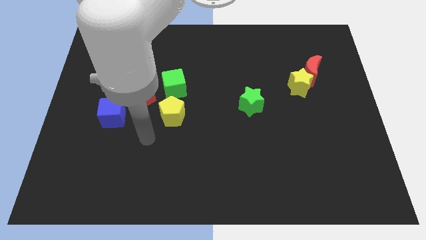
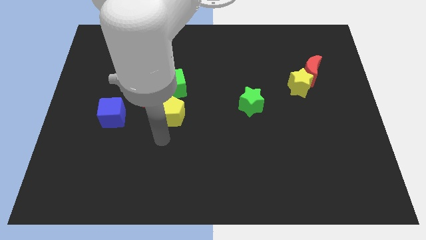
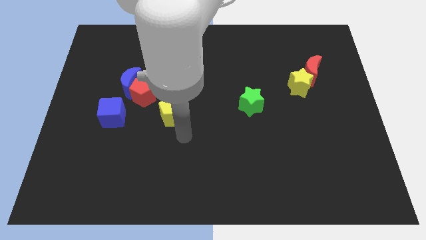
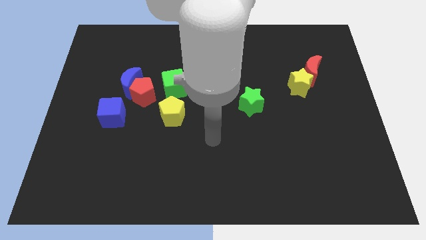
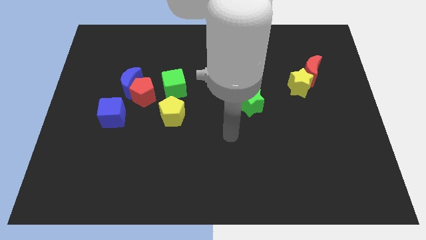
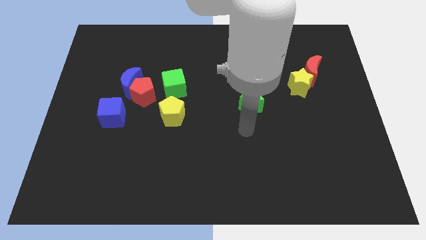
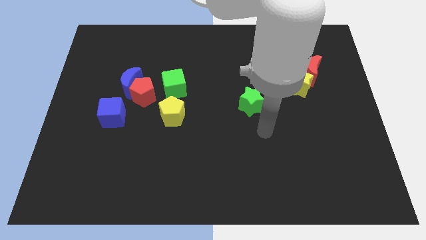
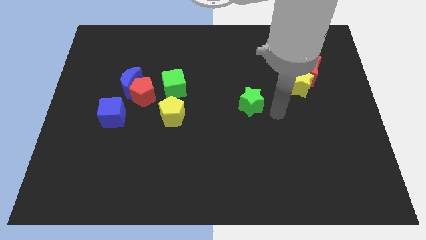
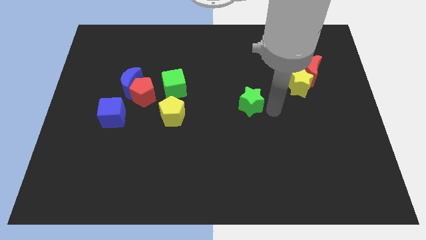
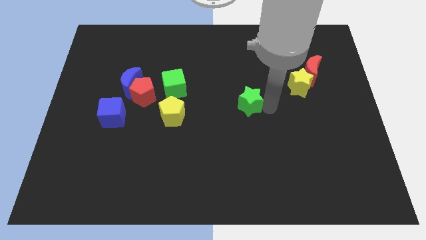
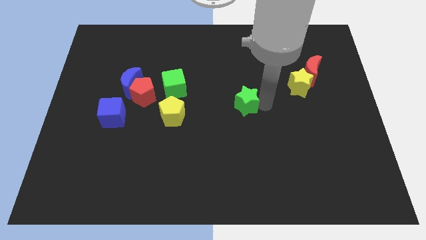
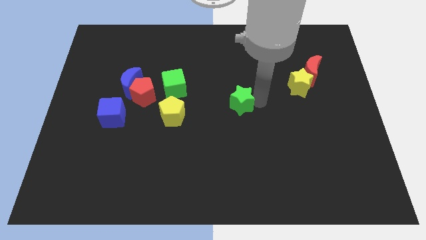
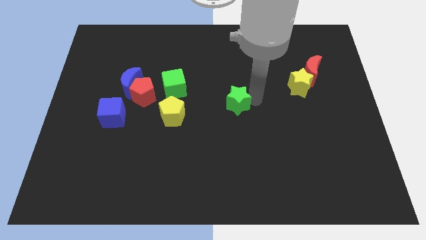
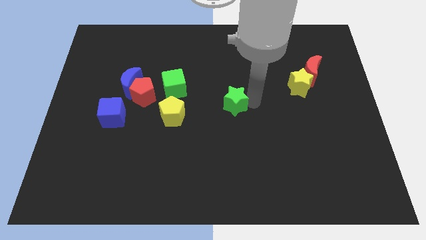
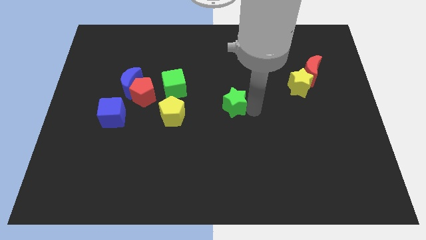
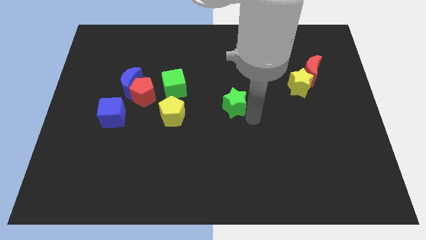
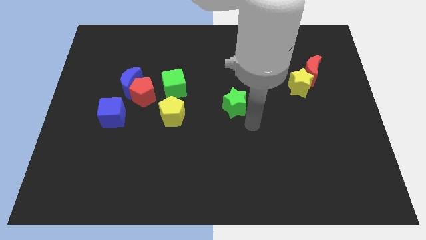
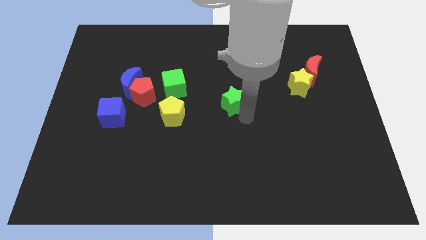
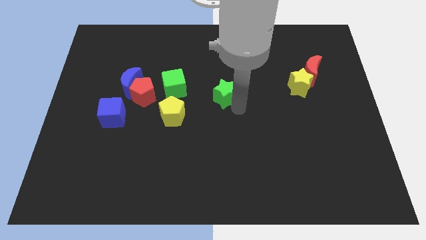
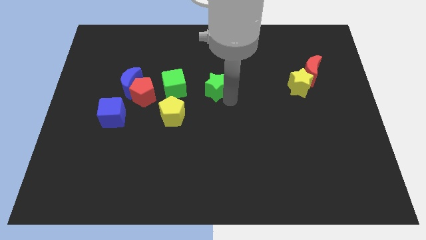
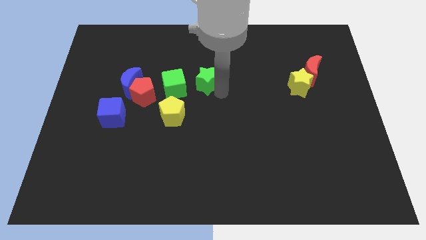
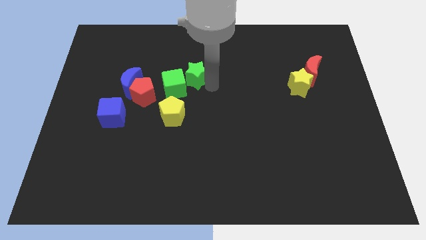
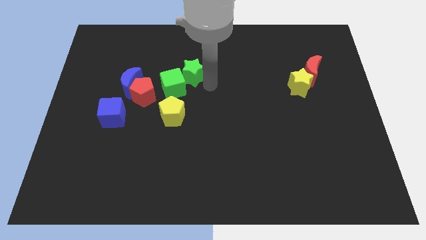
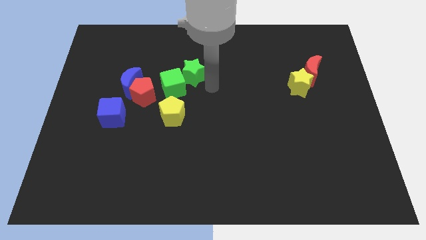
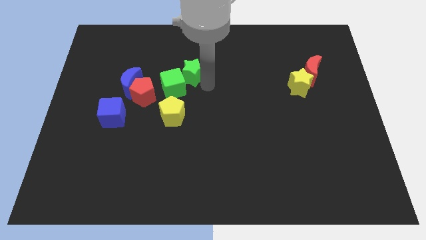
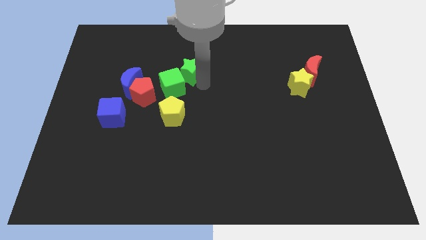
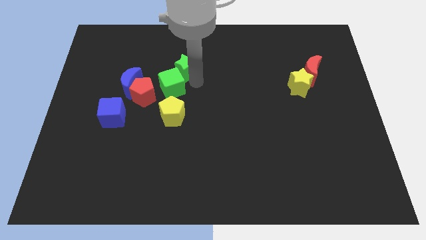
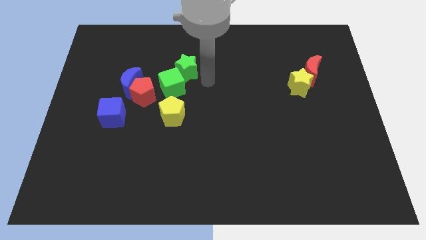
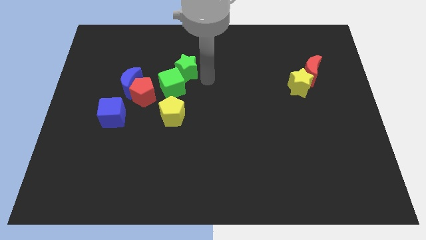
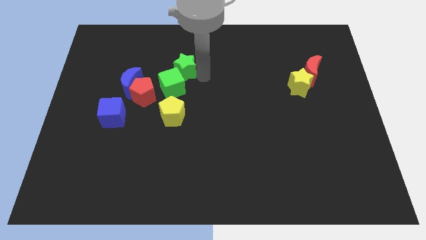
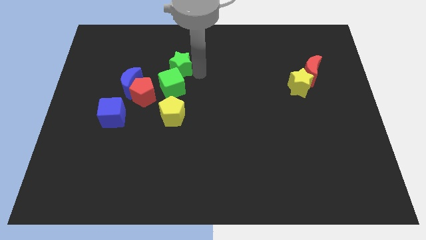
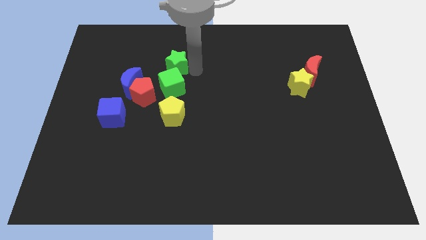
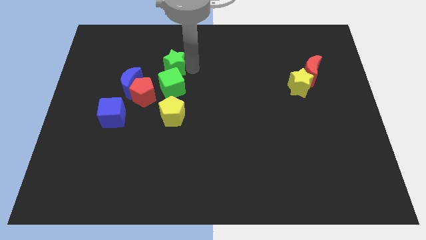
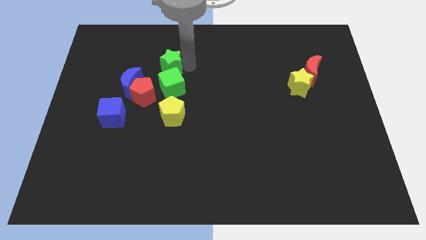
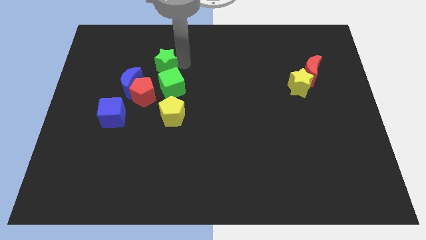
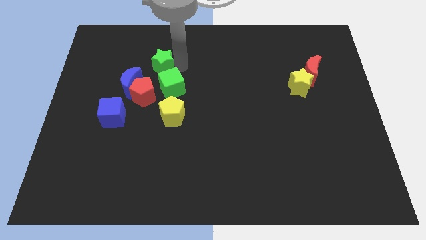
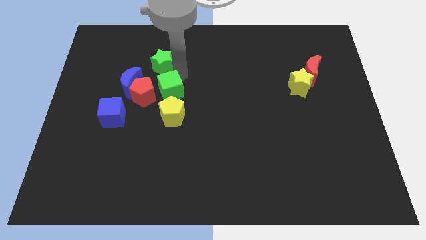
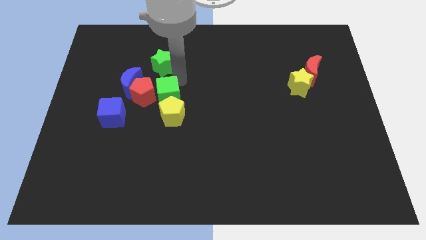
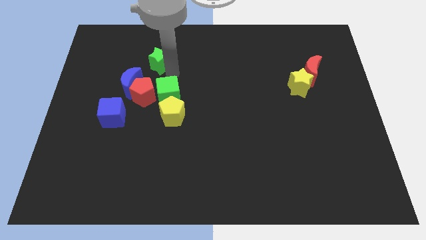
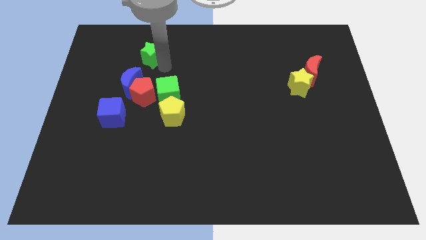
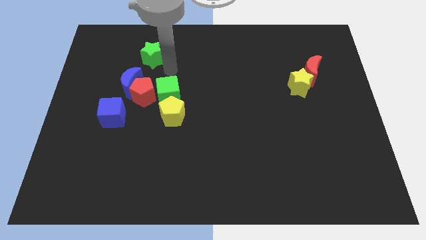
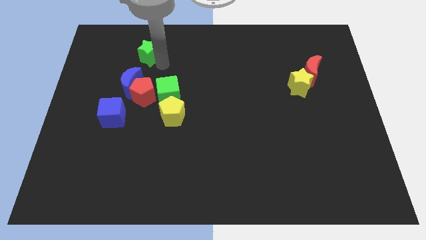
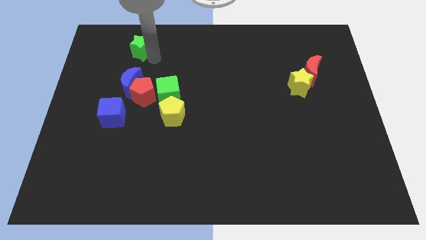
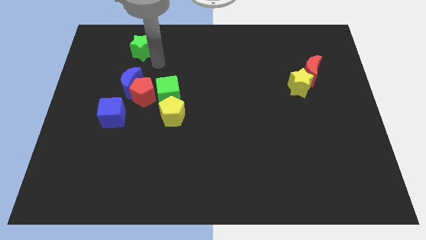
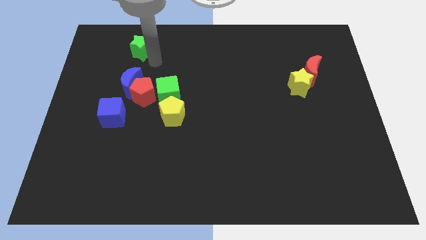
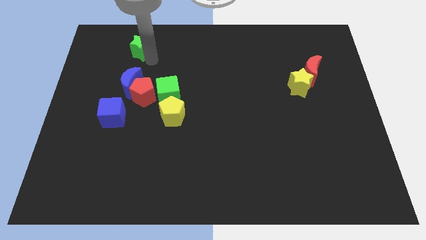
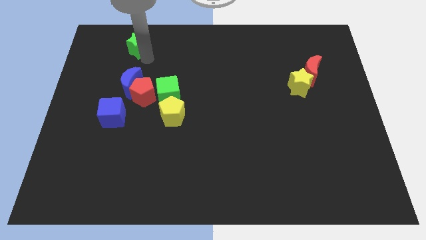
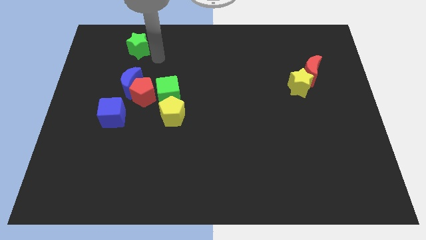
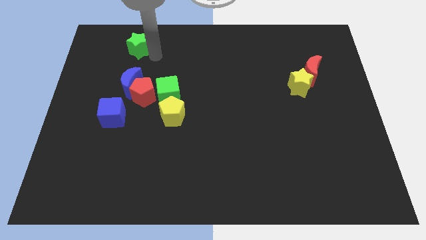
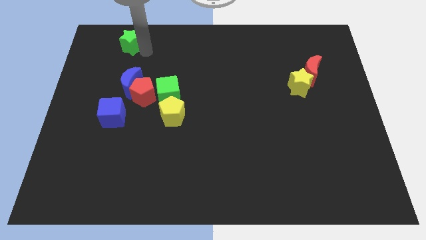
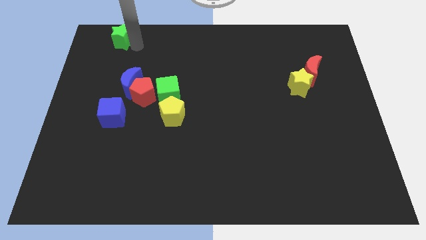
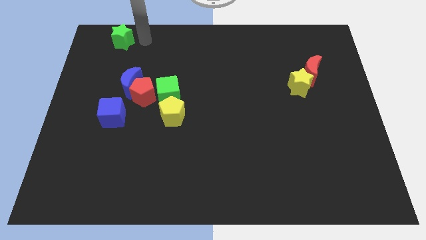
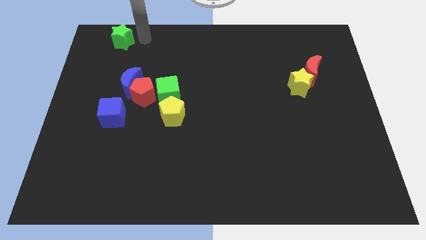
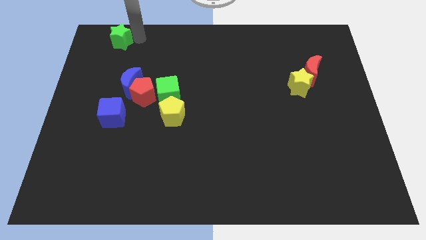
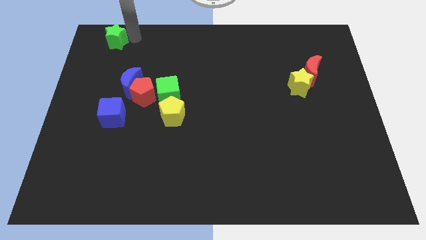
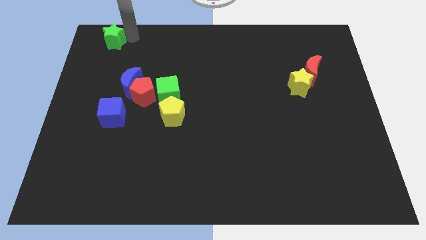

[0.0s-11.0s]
put the green star to the top left
